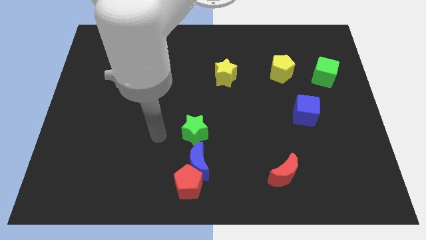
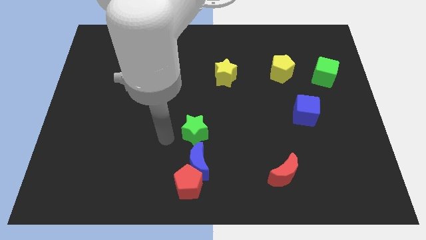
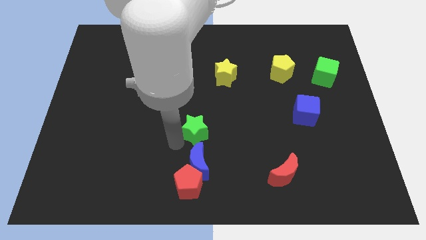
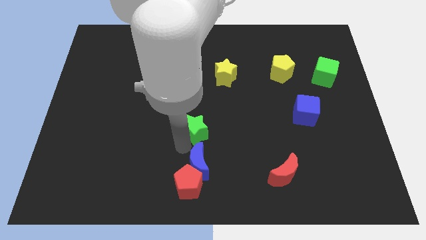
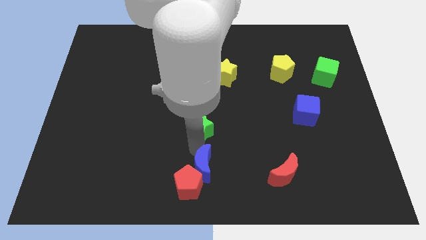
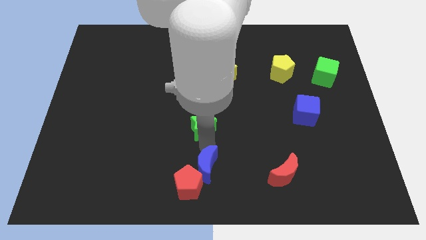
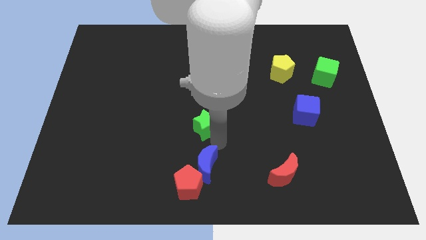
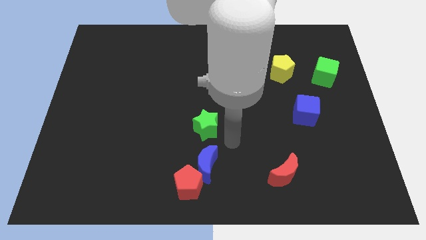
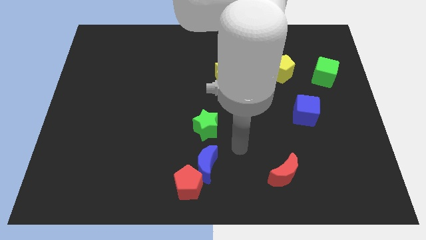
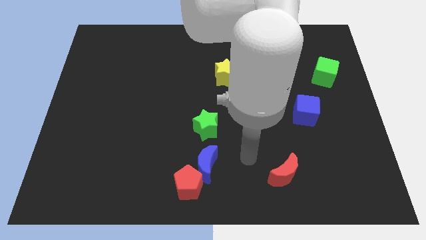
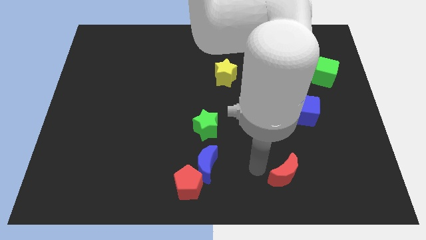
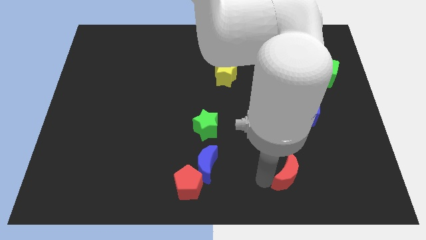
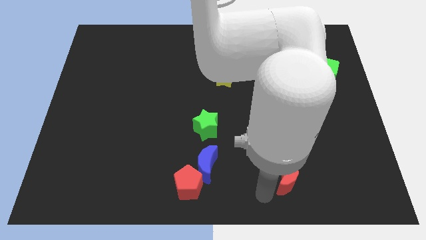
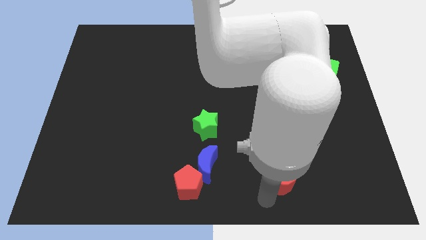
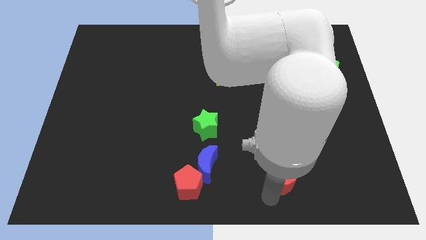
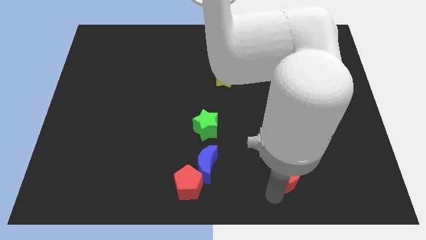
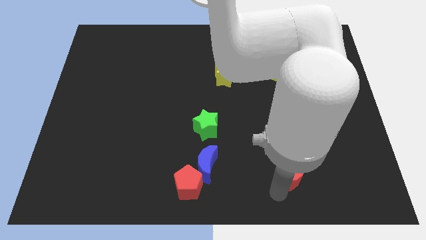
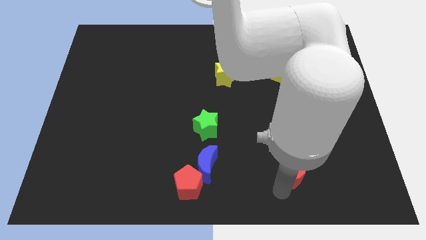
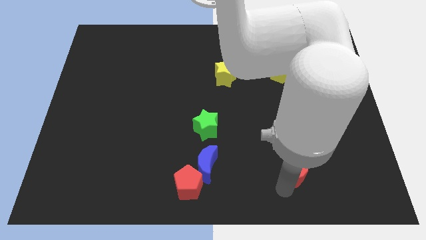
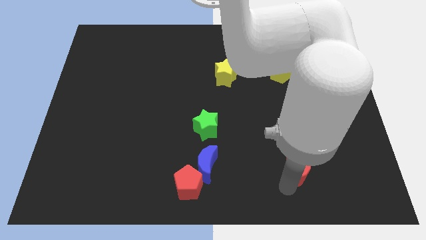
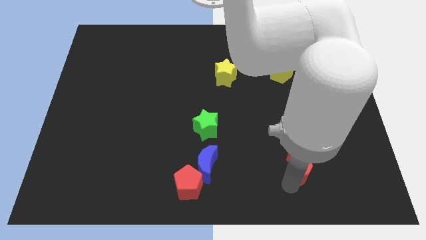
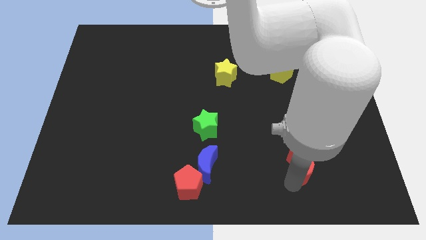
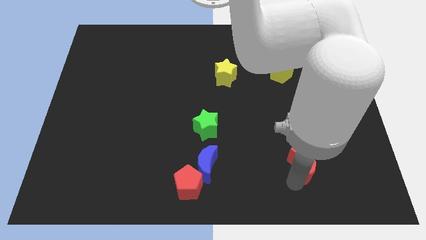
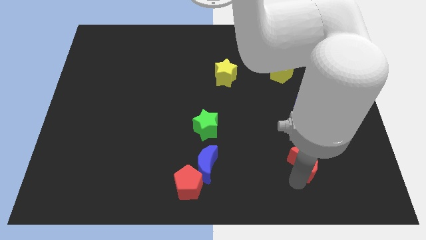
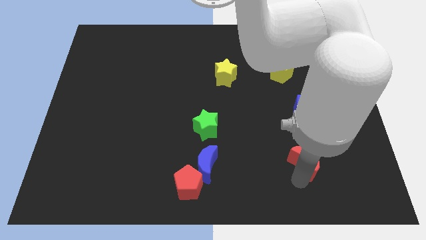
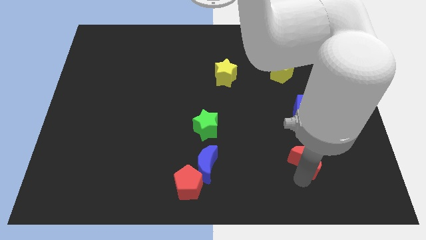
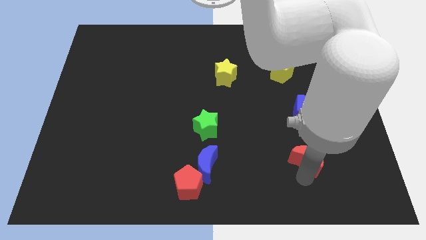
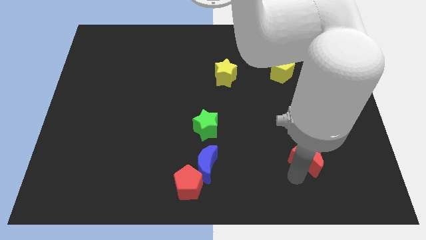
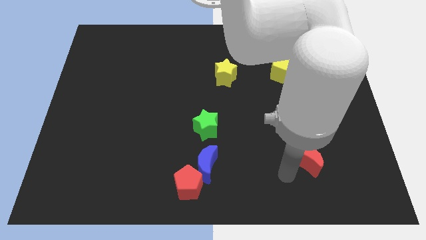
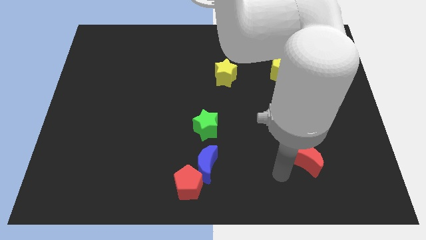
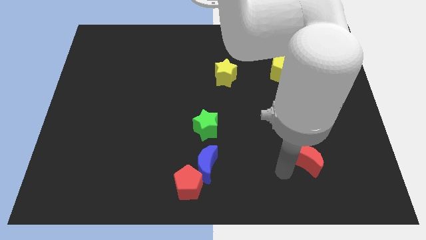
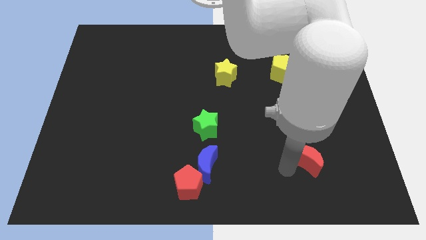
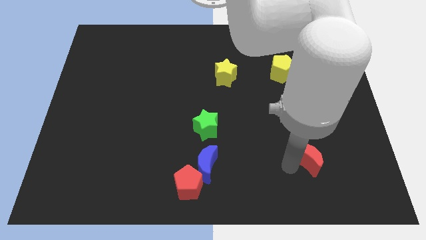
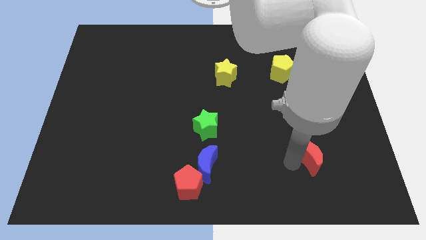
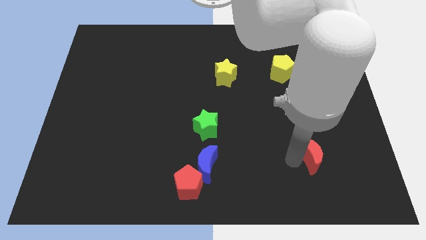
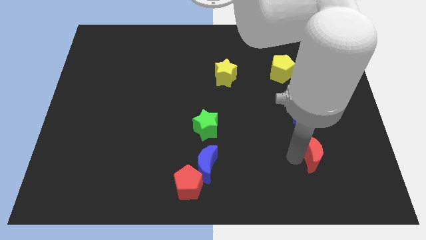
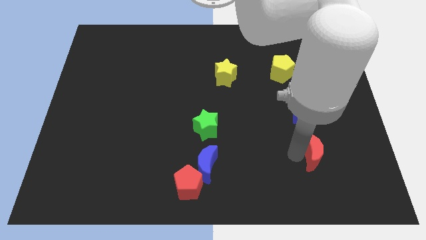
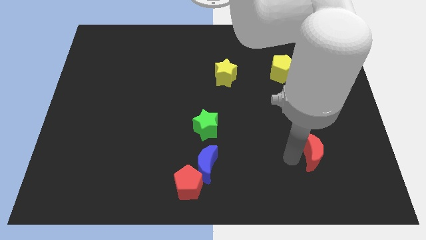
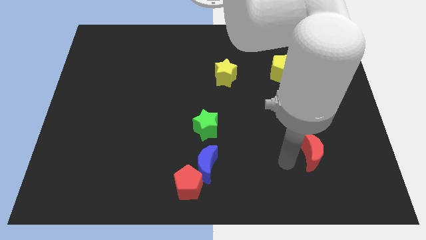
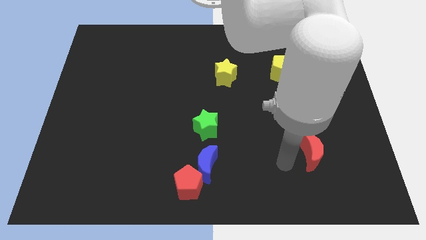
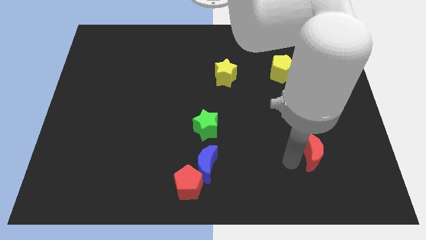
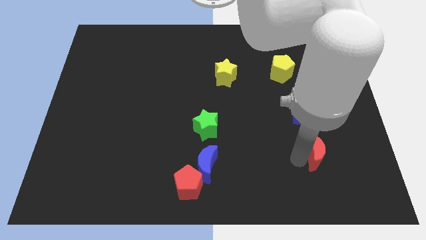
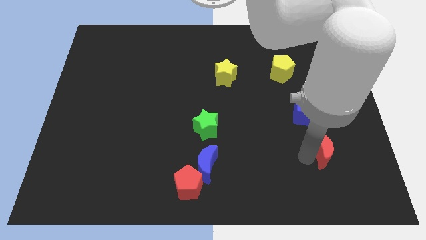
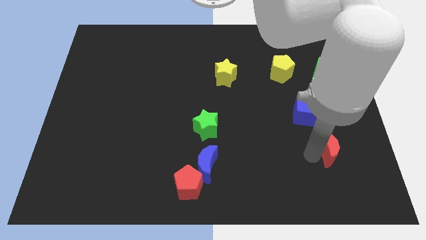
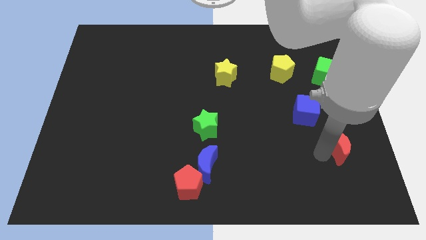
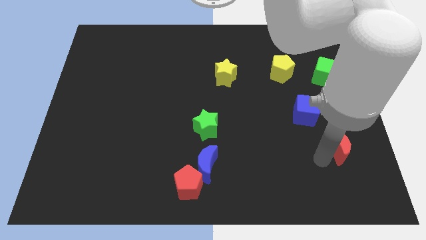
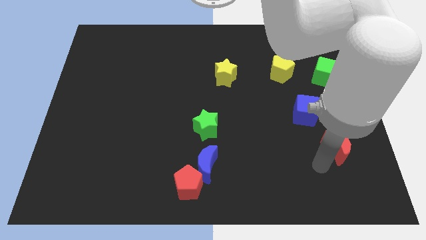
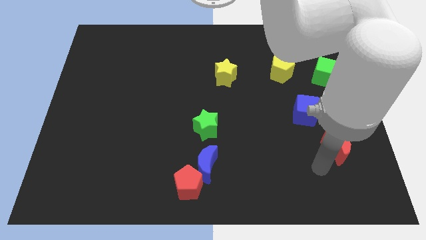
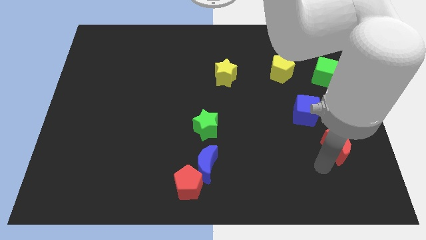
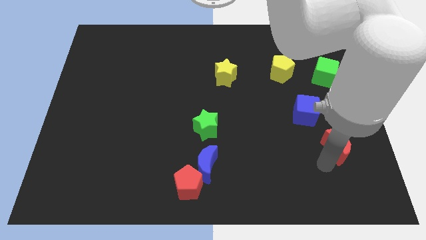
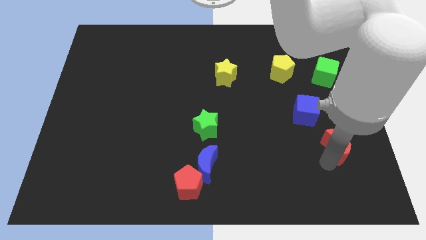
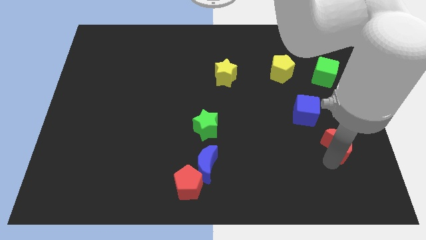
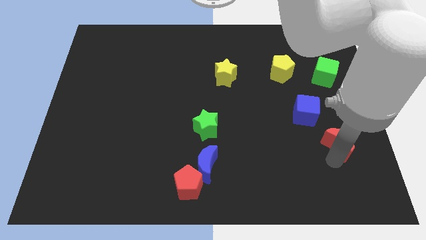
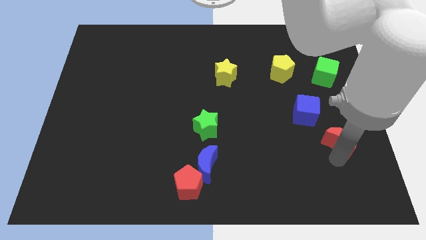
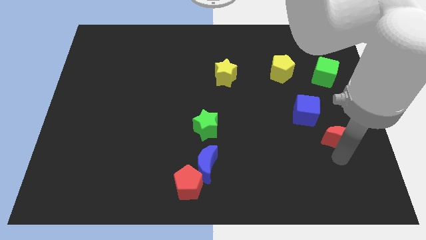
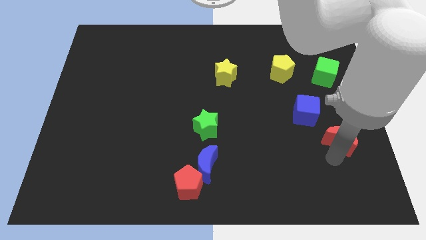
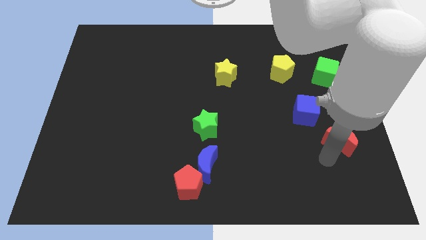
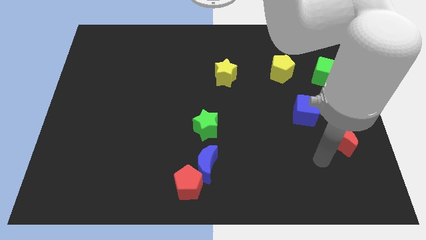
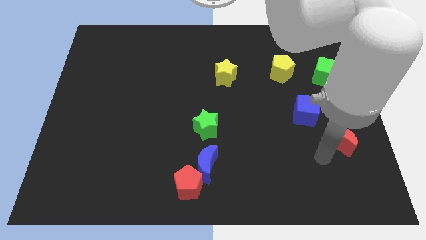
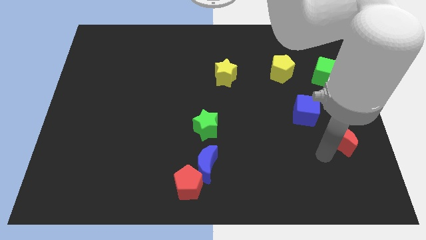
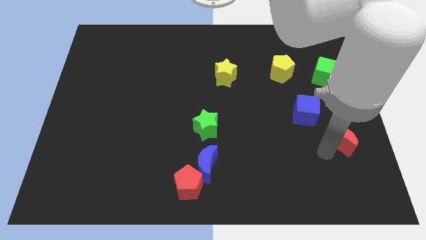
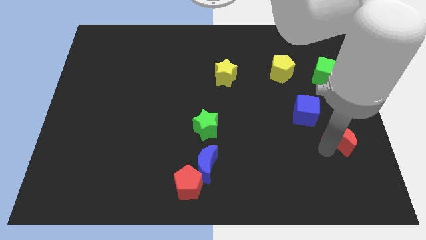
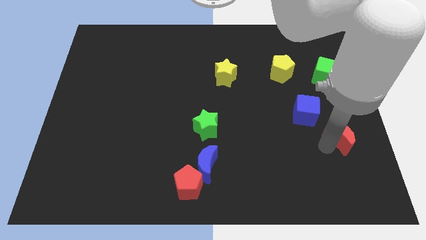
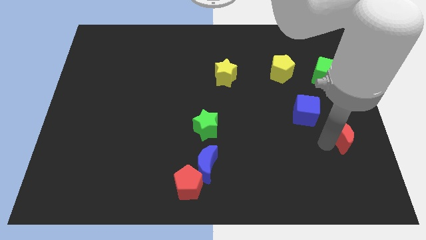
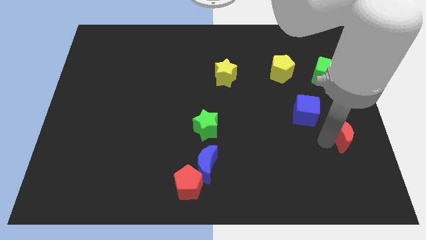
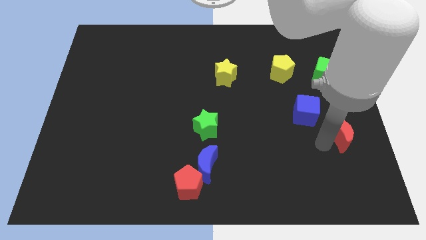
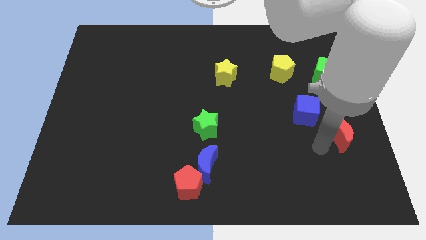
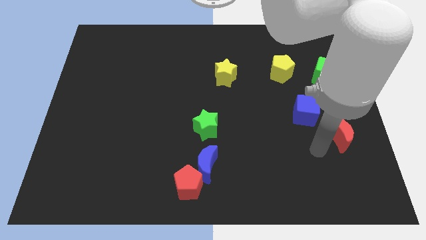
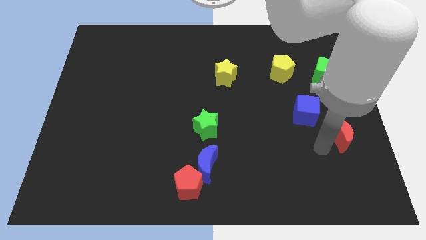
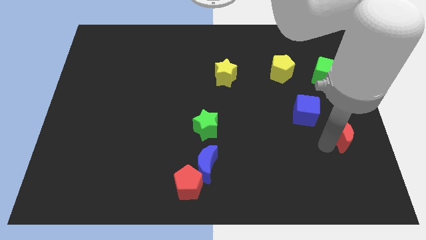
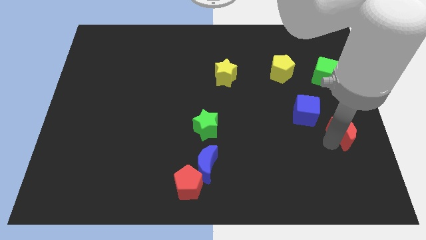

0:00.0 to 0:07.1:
slide the red moon to the right side of the board
